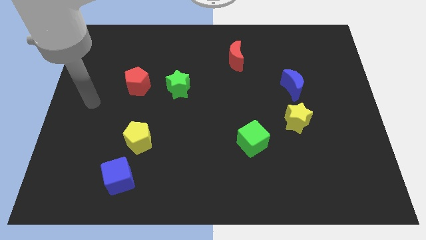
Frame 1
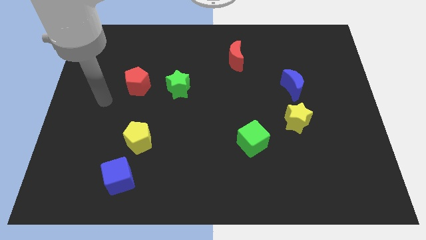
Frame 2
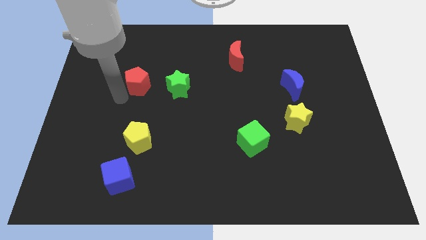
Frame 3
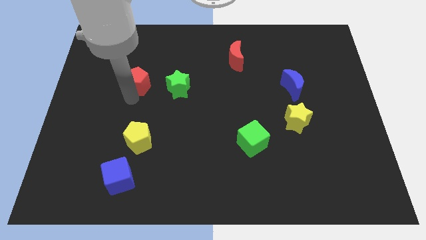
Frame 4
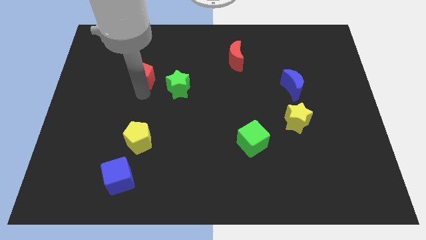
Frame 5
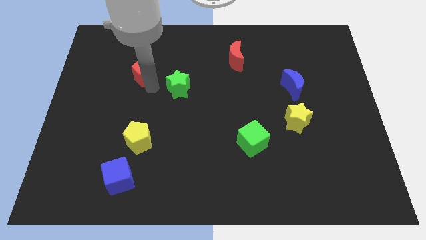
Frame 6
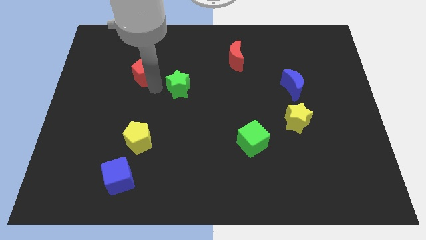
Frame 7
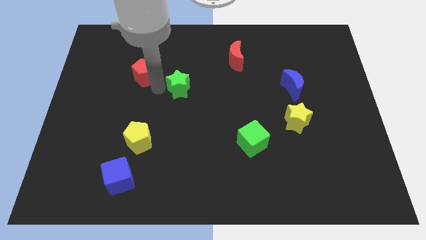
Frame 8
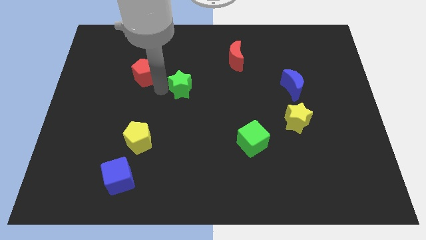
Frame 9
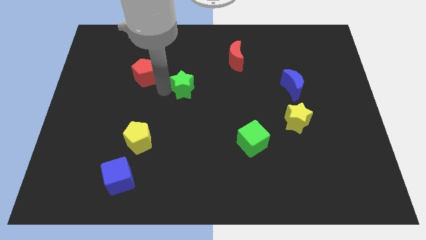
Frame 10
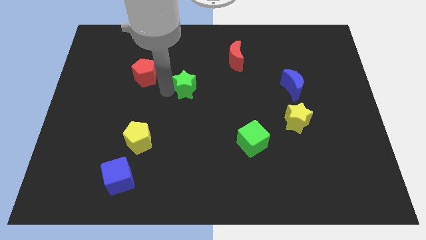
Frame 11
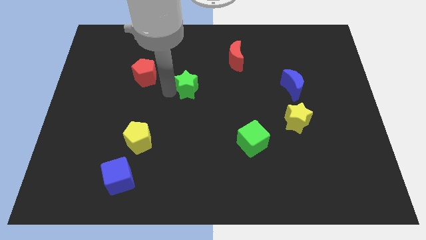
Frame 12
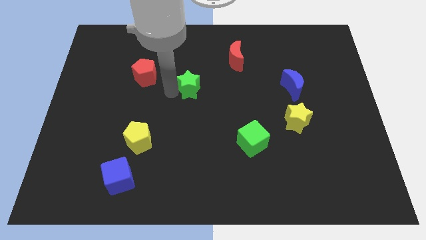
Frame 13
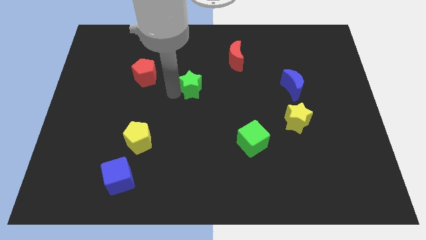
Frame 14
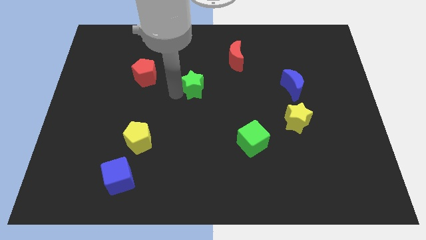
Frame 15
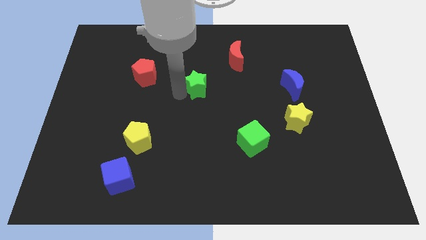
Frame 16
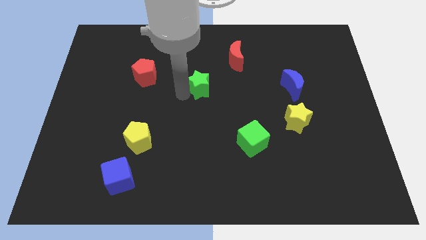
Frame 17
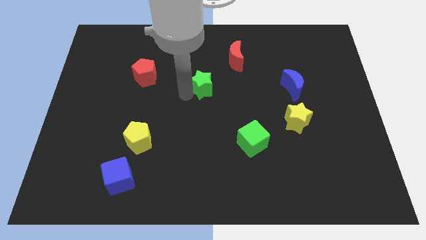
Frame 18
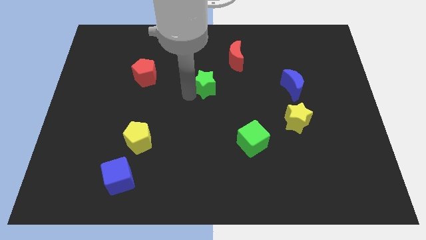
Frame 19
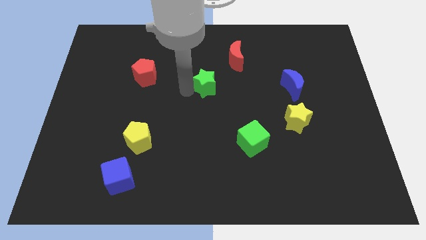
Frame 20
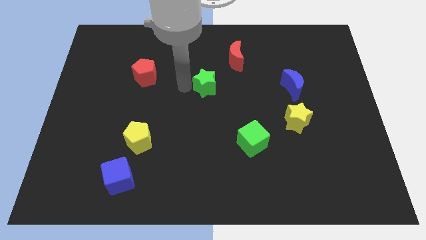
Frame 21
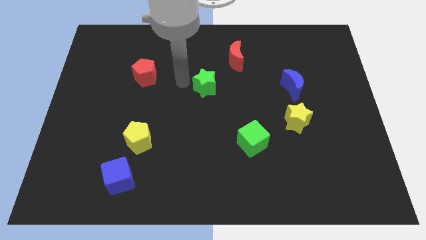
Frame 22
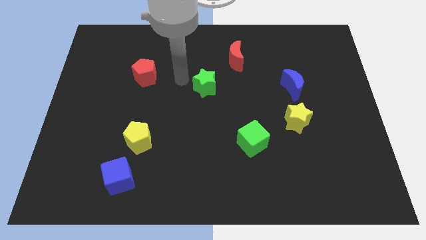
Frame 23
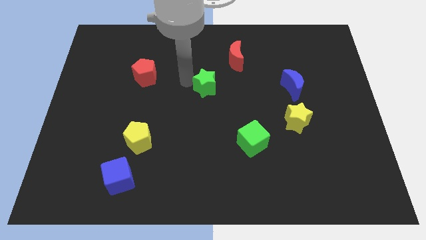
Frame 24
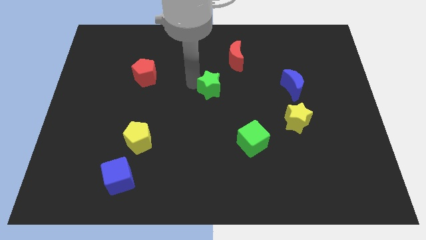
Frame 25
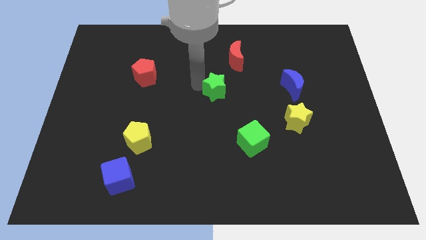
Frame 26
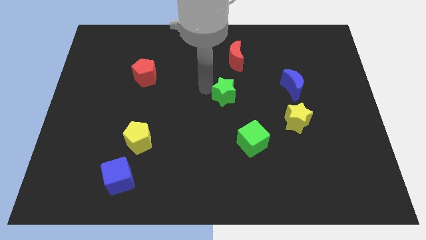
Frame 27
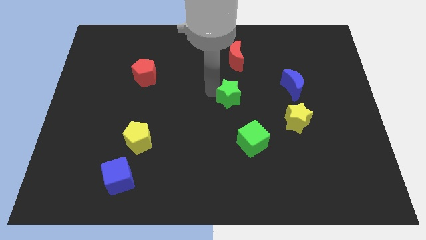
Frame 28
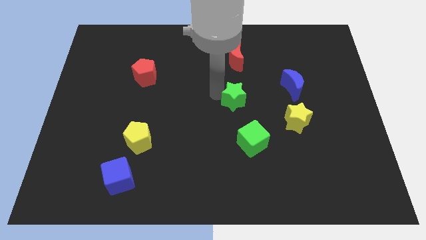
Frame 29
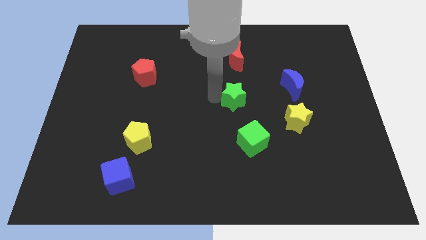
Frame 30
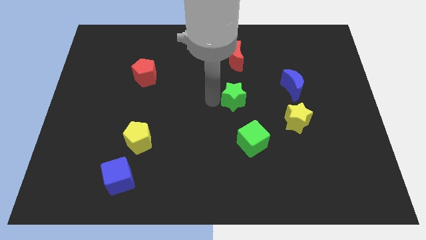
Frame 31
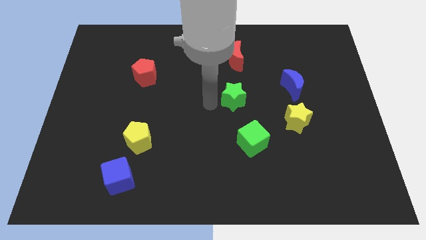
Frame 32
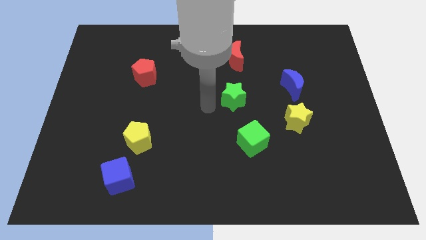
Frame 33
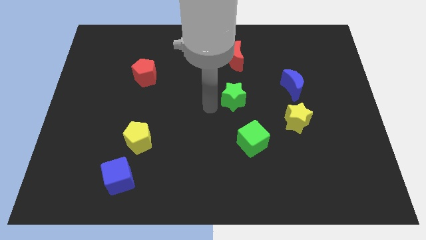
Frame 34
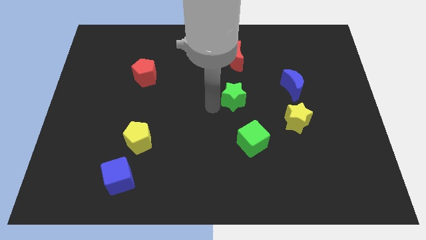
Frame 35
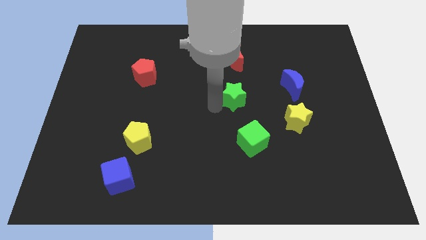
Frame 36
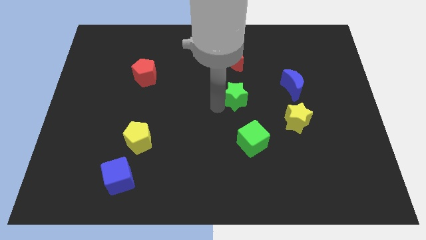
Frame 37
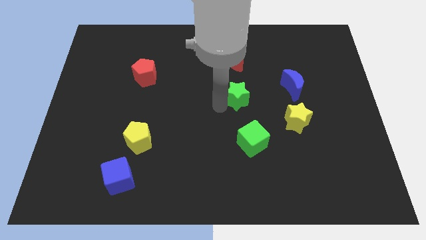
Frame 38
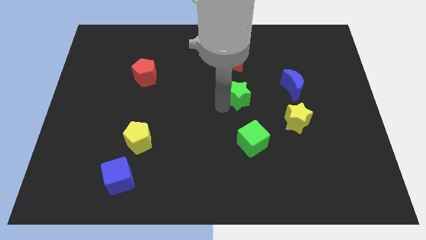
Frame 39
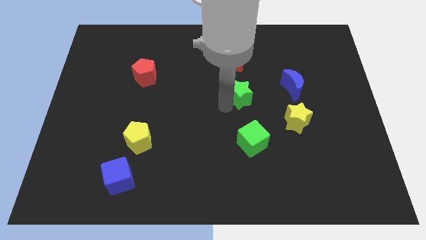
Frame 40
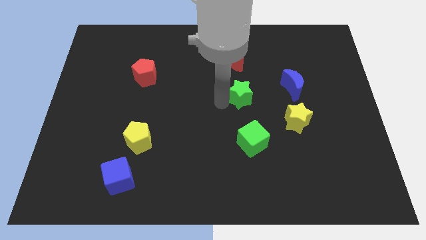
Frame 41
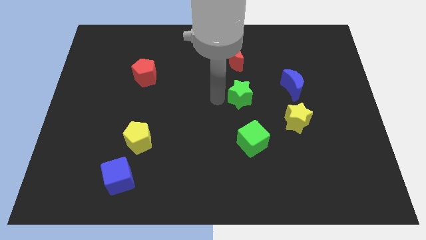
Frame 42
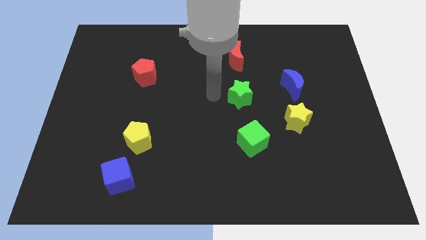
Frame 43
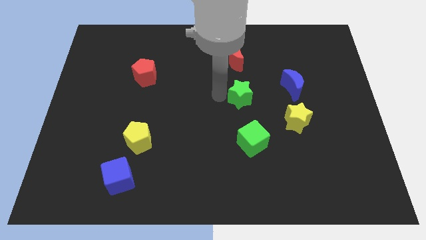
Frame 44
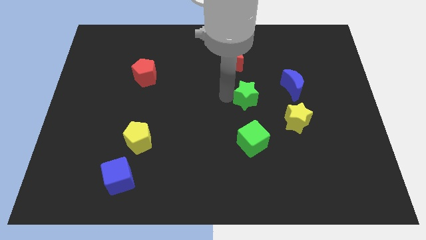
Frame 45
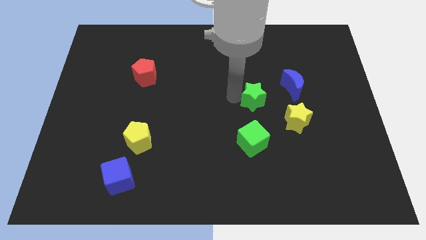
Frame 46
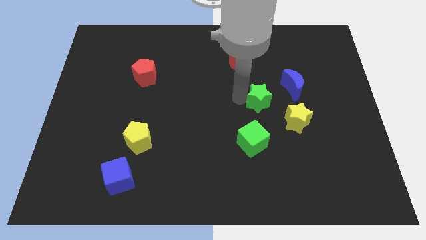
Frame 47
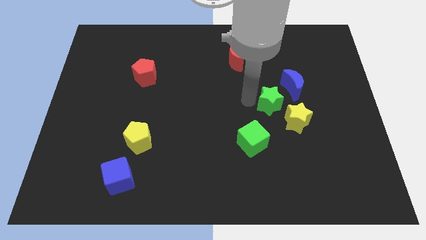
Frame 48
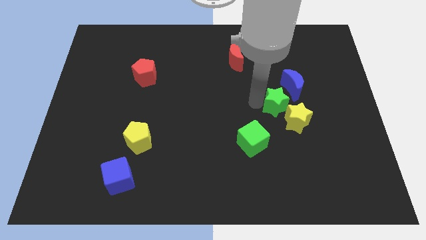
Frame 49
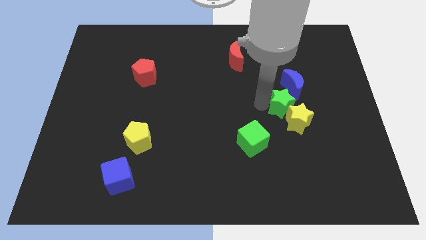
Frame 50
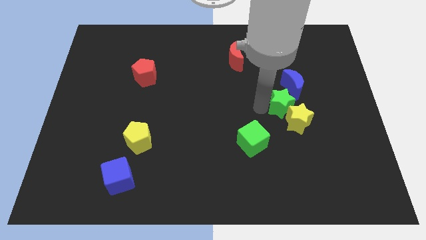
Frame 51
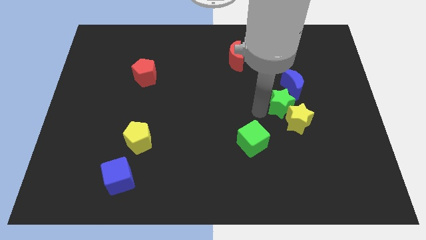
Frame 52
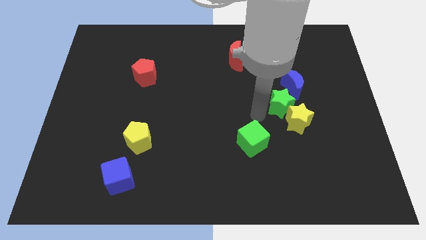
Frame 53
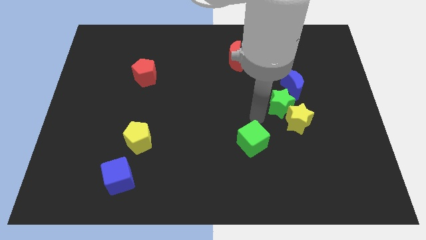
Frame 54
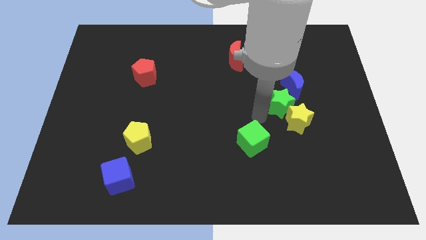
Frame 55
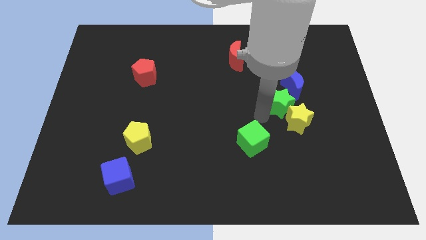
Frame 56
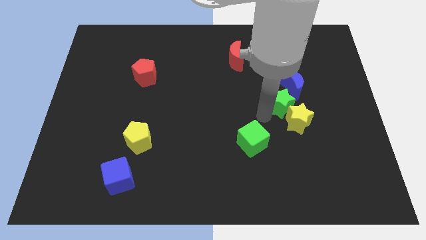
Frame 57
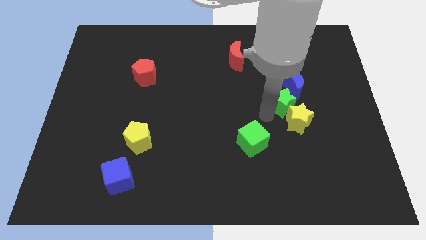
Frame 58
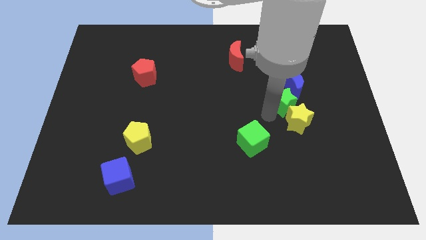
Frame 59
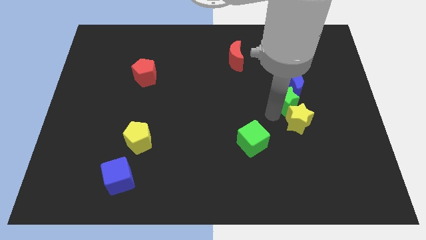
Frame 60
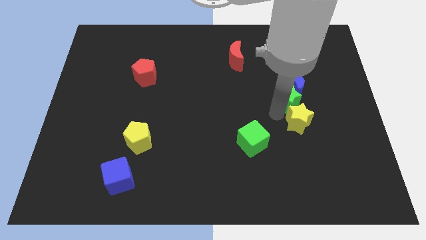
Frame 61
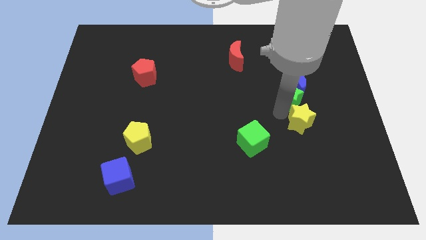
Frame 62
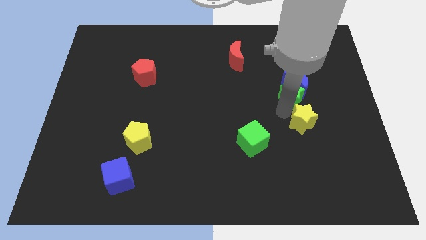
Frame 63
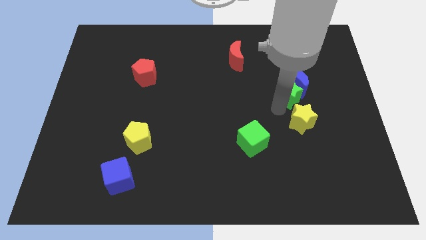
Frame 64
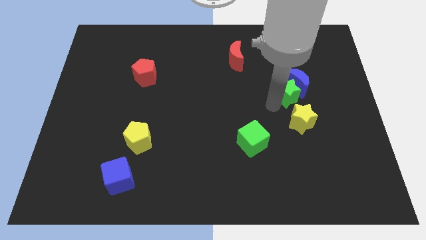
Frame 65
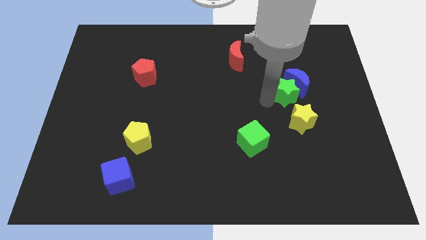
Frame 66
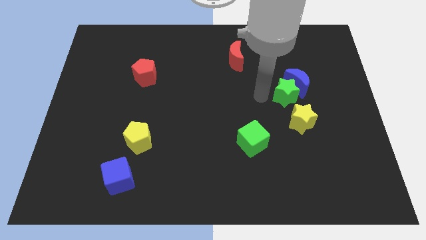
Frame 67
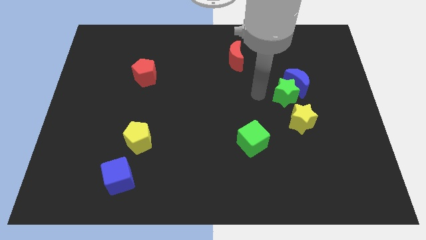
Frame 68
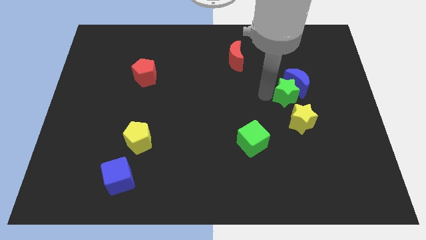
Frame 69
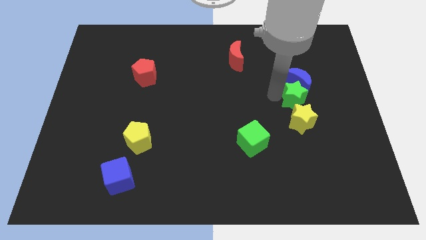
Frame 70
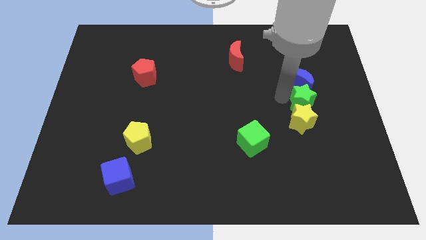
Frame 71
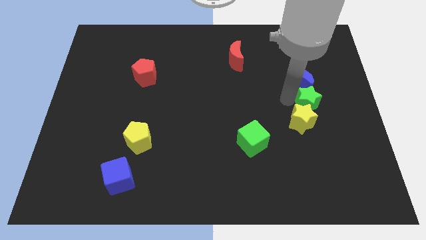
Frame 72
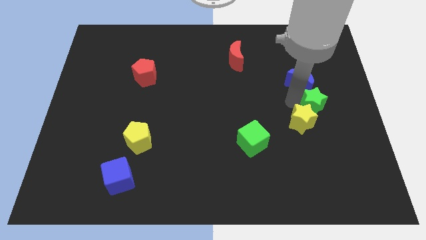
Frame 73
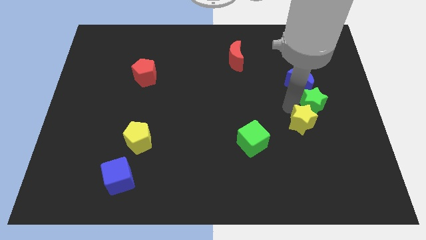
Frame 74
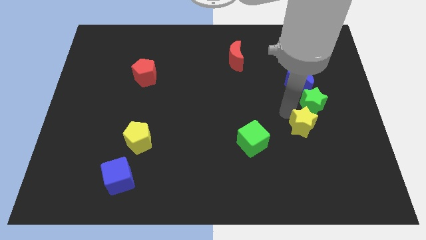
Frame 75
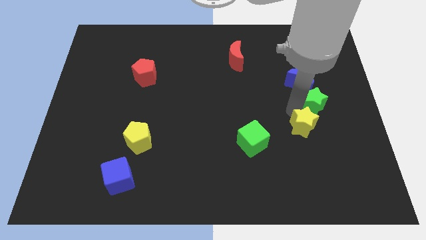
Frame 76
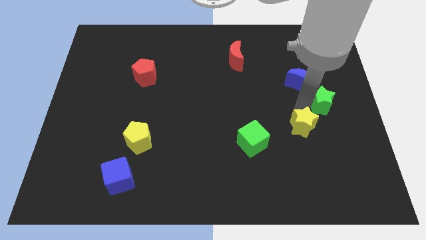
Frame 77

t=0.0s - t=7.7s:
put the green star to the right side of the board
